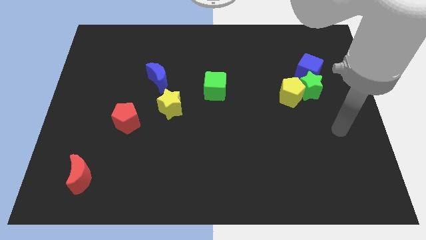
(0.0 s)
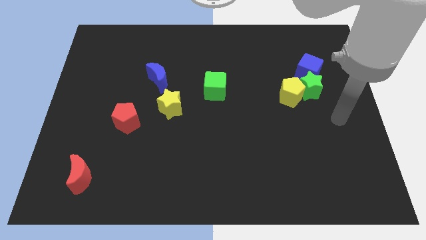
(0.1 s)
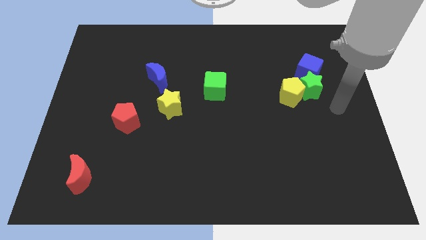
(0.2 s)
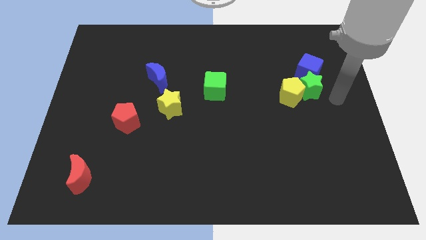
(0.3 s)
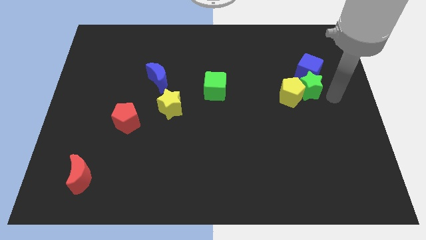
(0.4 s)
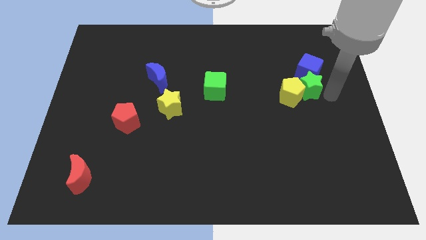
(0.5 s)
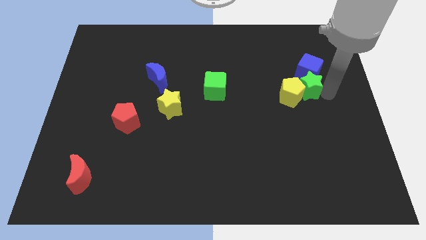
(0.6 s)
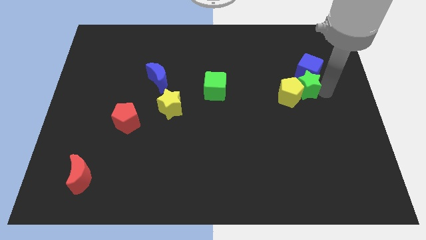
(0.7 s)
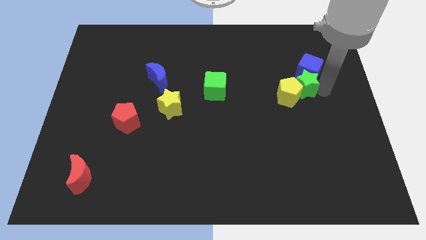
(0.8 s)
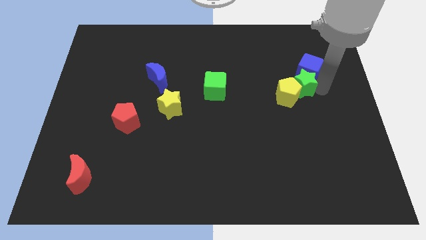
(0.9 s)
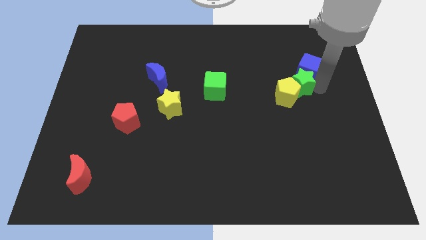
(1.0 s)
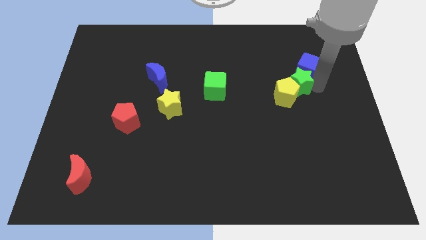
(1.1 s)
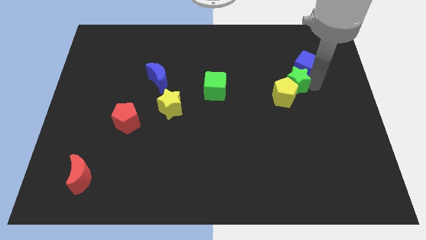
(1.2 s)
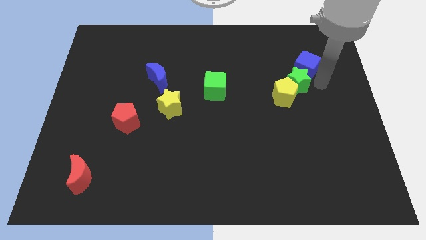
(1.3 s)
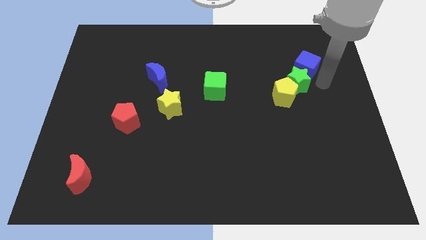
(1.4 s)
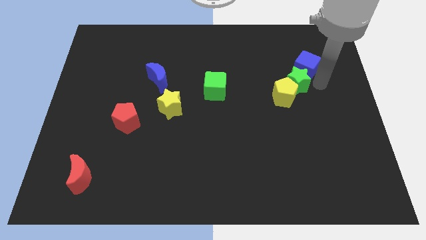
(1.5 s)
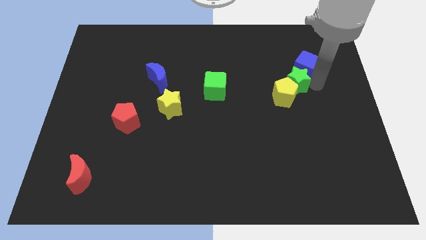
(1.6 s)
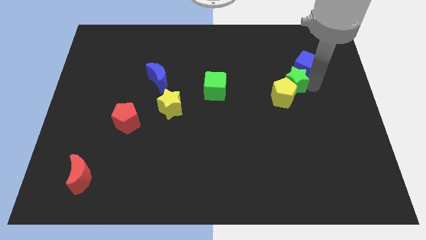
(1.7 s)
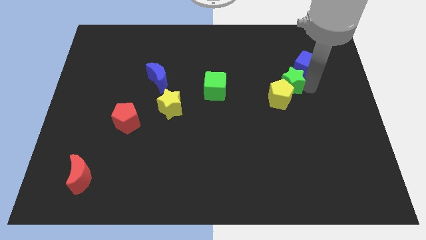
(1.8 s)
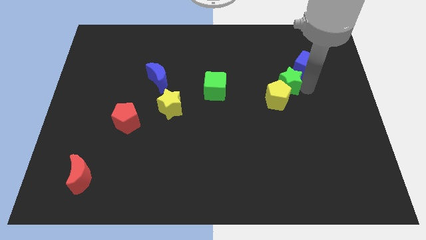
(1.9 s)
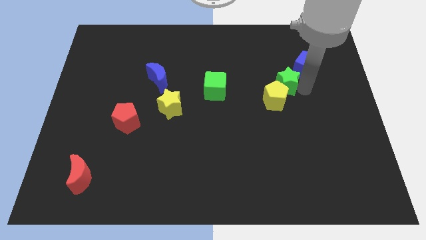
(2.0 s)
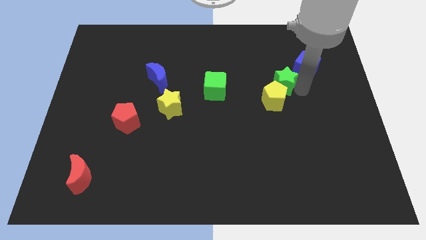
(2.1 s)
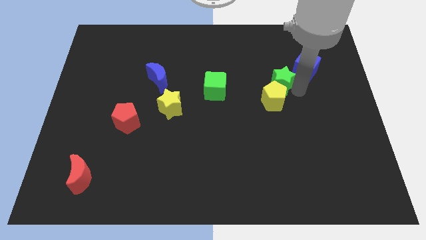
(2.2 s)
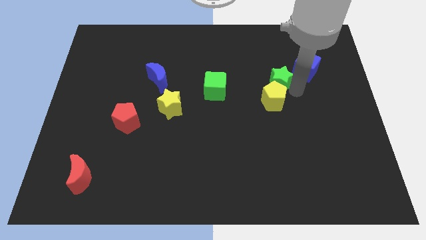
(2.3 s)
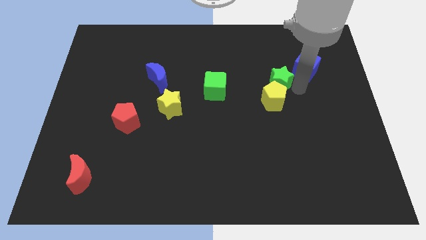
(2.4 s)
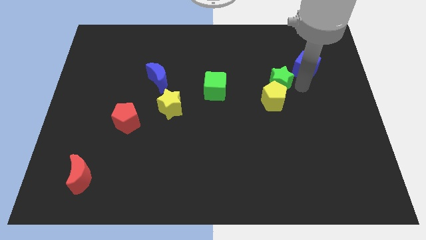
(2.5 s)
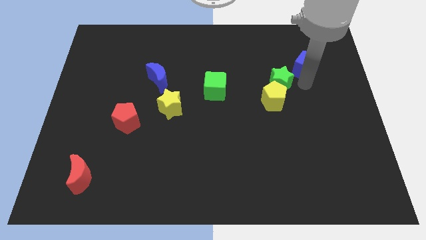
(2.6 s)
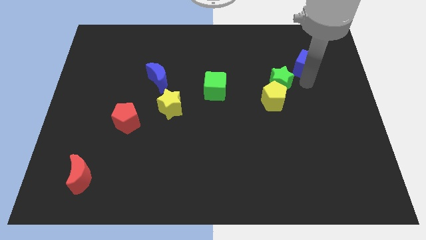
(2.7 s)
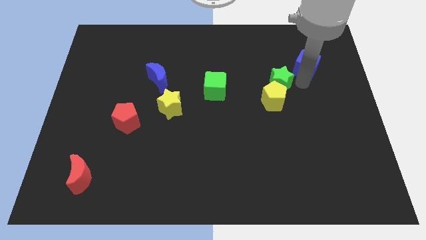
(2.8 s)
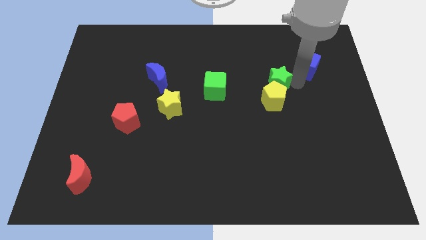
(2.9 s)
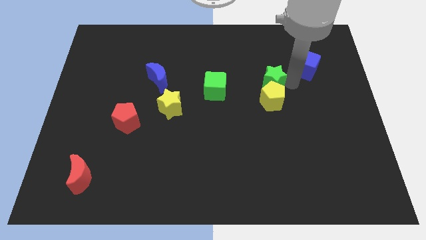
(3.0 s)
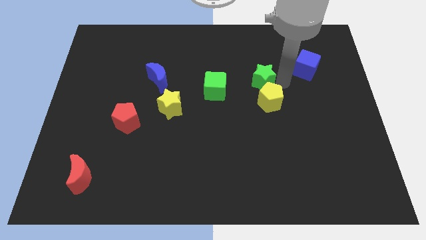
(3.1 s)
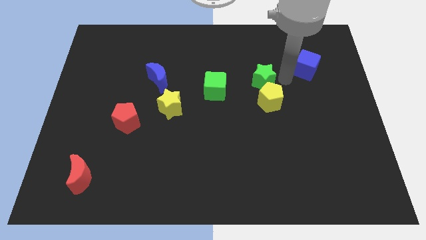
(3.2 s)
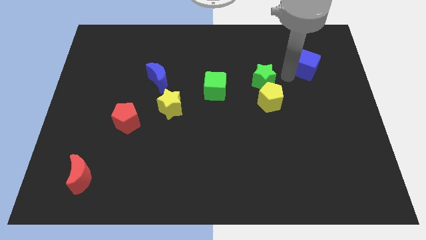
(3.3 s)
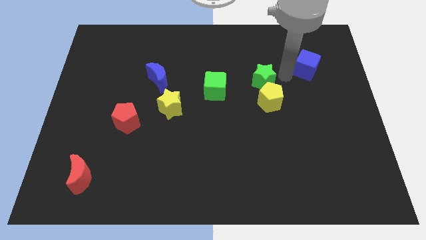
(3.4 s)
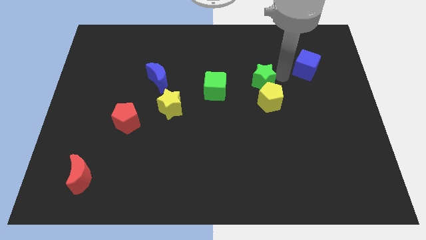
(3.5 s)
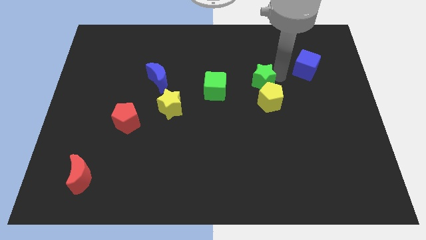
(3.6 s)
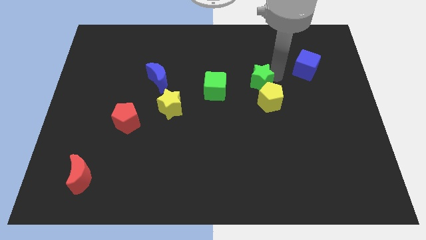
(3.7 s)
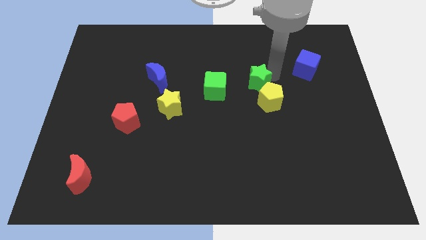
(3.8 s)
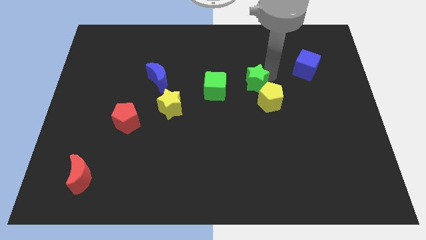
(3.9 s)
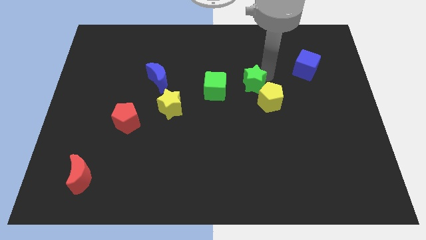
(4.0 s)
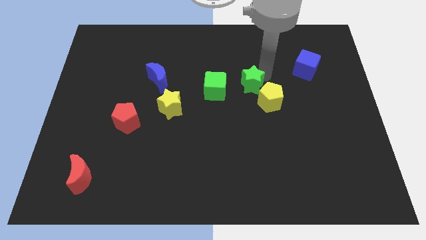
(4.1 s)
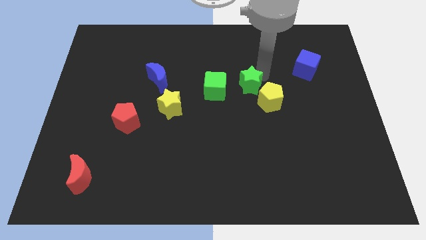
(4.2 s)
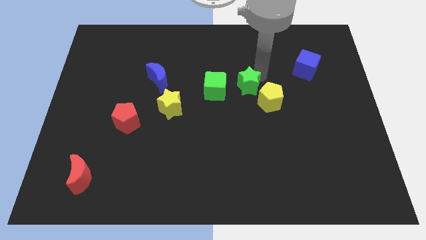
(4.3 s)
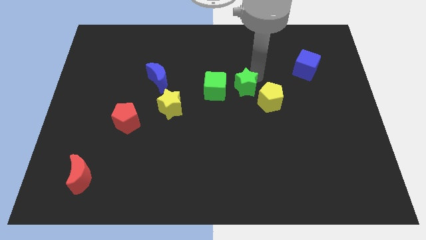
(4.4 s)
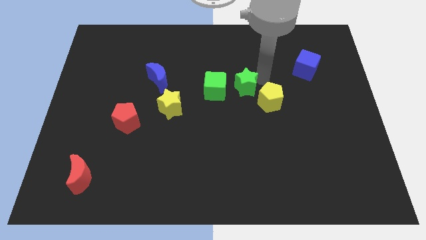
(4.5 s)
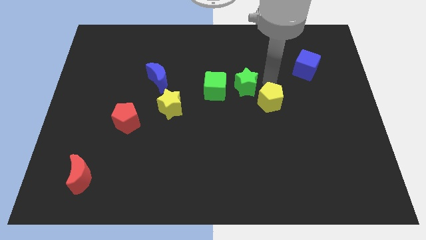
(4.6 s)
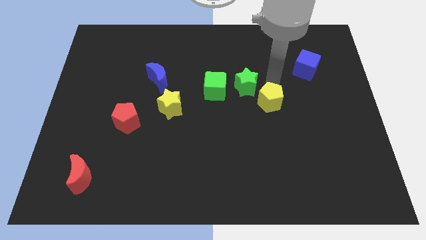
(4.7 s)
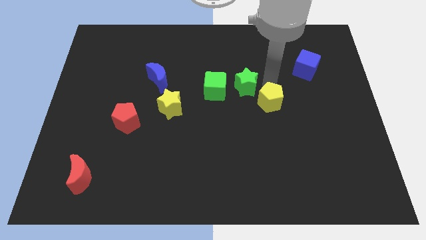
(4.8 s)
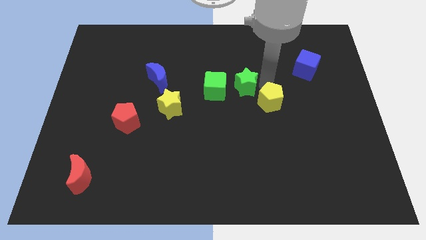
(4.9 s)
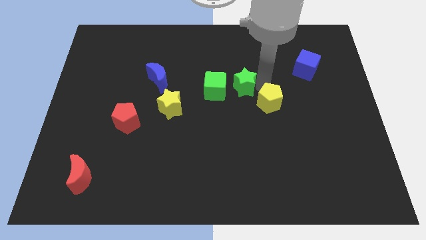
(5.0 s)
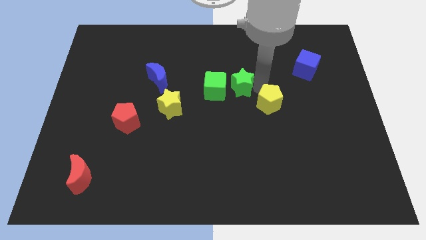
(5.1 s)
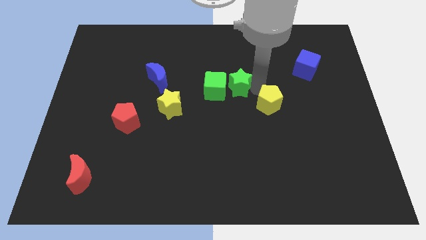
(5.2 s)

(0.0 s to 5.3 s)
push the green star next to the green cube

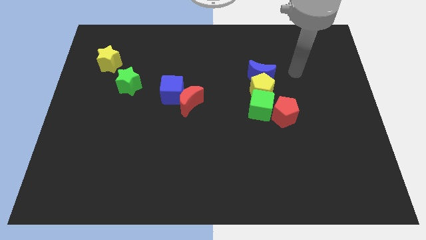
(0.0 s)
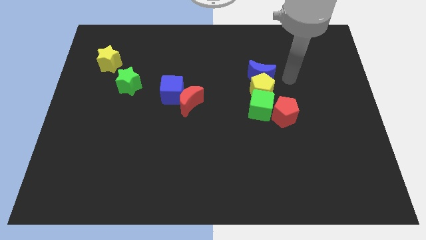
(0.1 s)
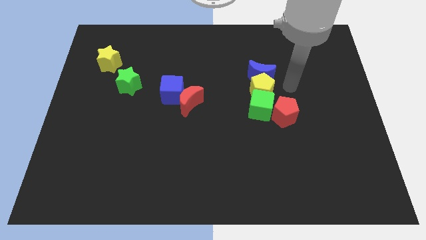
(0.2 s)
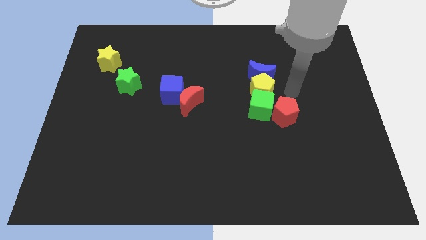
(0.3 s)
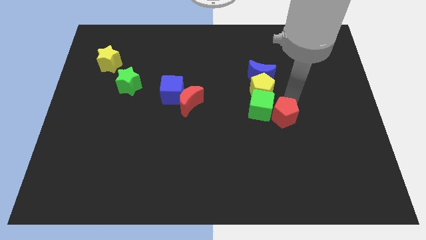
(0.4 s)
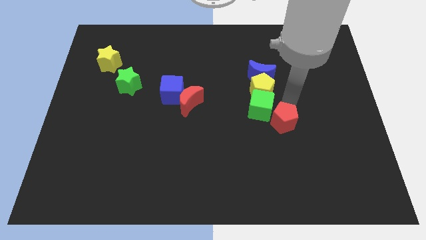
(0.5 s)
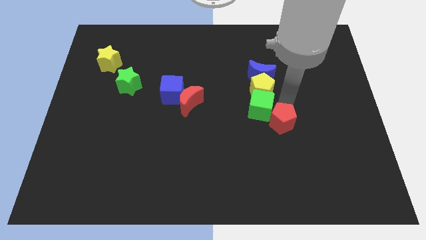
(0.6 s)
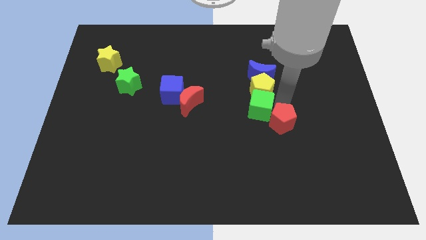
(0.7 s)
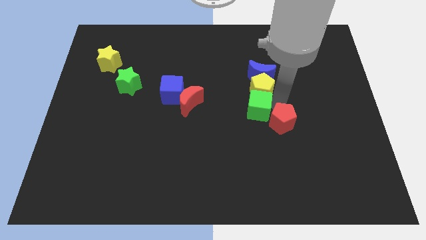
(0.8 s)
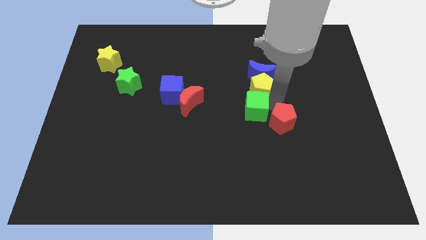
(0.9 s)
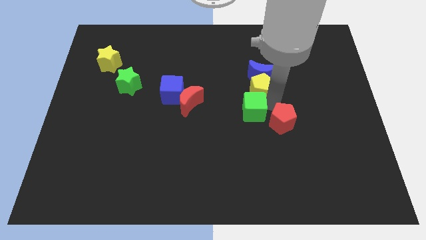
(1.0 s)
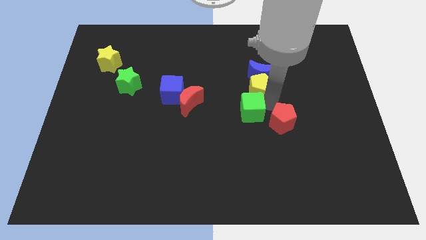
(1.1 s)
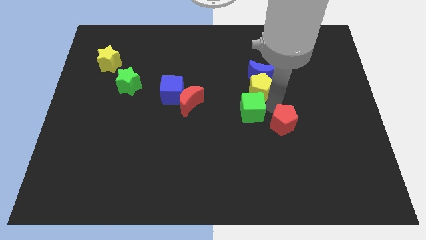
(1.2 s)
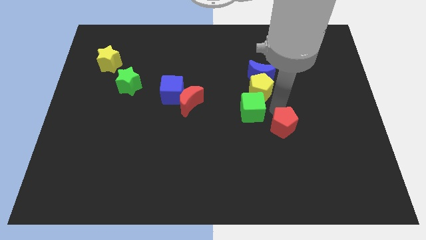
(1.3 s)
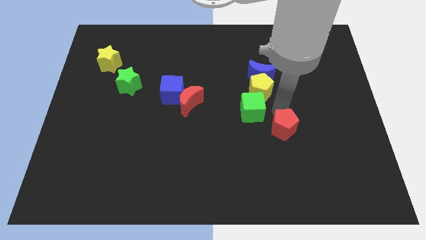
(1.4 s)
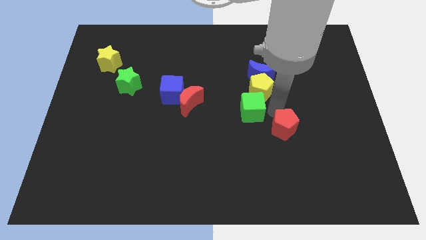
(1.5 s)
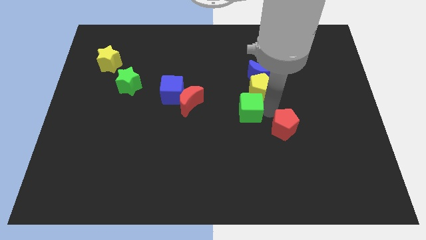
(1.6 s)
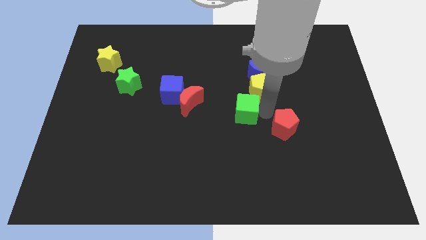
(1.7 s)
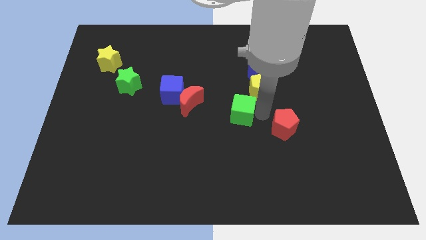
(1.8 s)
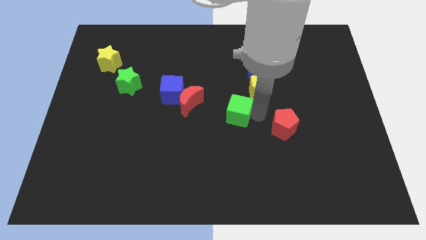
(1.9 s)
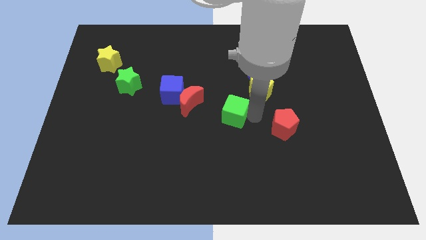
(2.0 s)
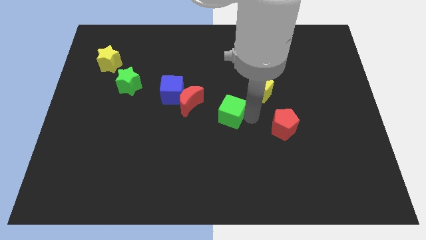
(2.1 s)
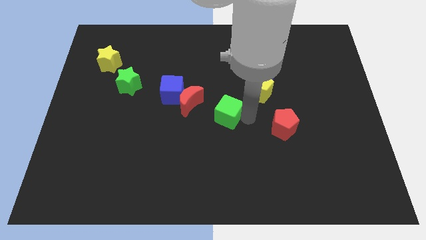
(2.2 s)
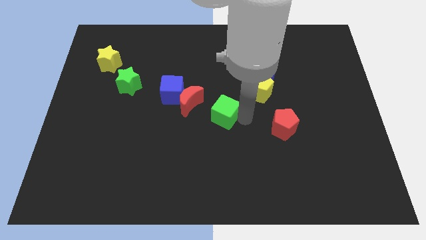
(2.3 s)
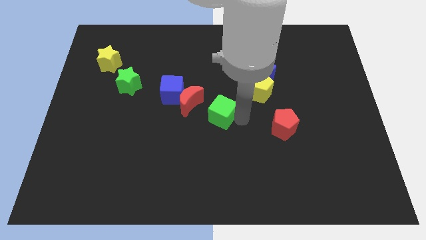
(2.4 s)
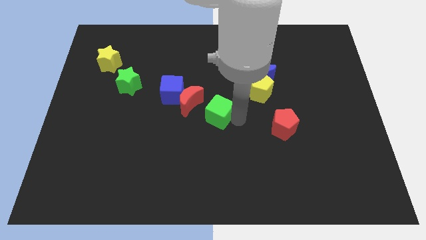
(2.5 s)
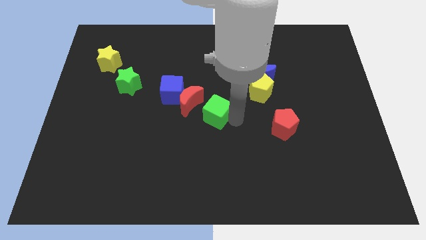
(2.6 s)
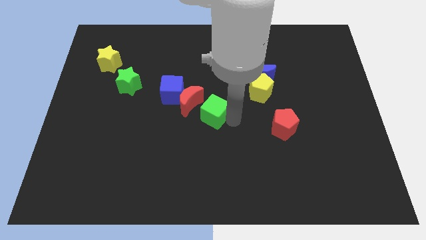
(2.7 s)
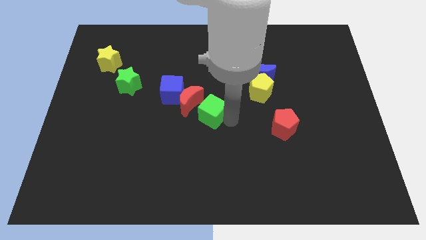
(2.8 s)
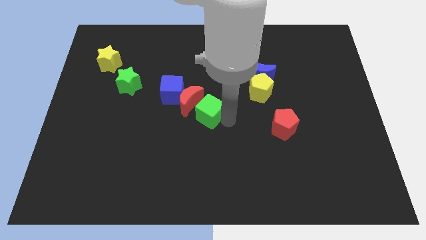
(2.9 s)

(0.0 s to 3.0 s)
move the green cube next to the red moon
